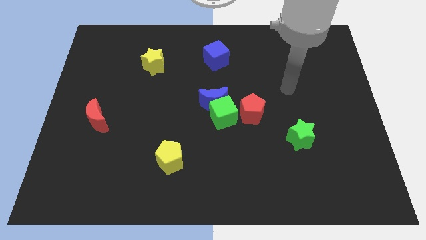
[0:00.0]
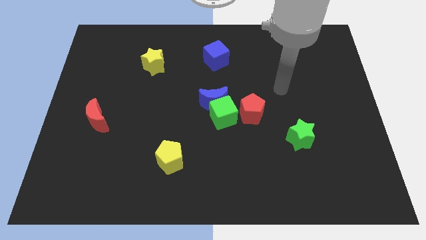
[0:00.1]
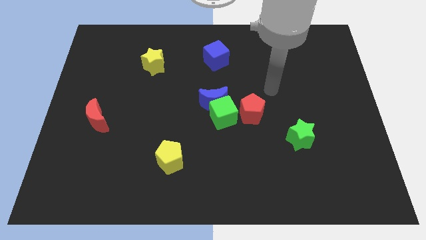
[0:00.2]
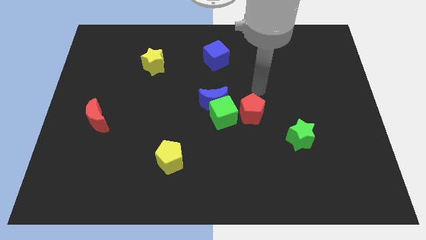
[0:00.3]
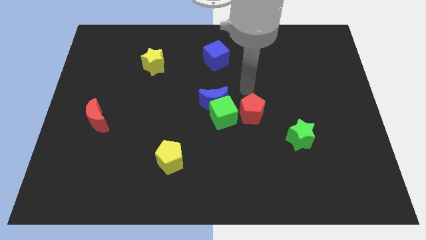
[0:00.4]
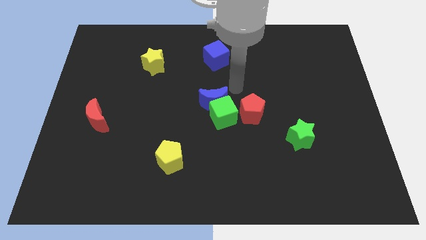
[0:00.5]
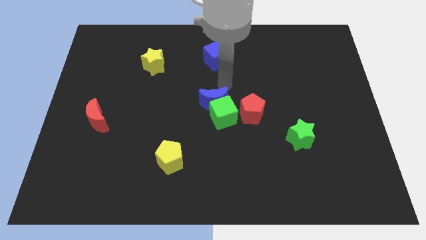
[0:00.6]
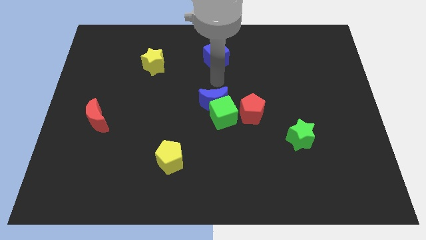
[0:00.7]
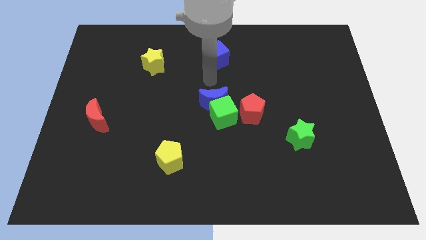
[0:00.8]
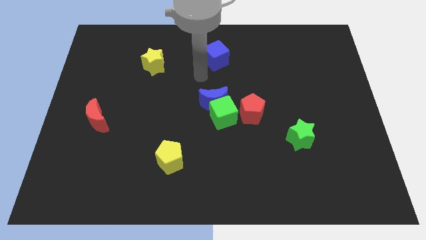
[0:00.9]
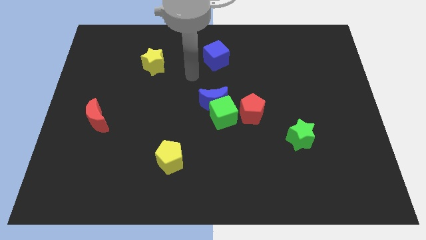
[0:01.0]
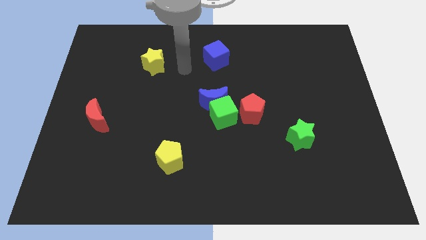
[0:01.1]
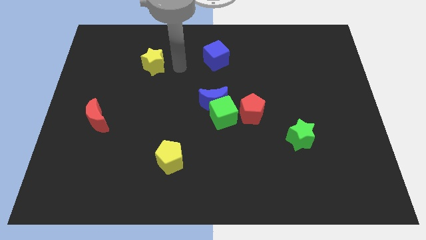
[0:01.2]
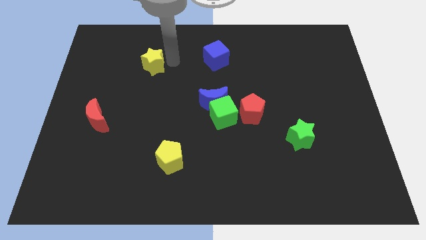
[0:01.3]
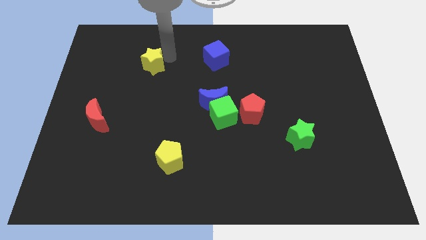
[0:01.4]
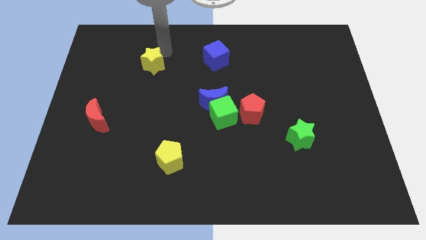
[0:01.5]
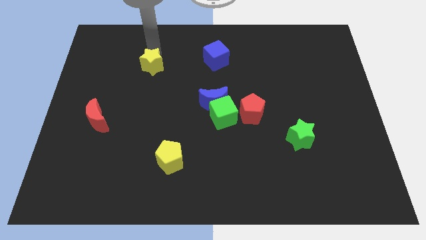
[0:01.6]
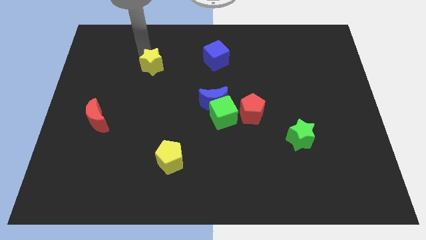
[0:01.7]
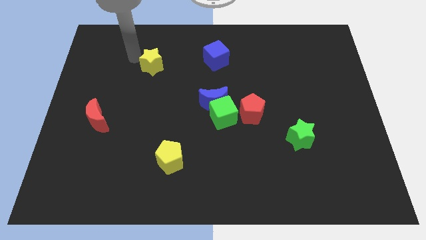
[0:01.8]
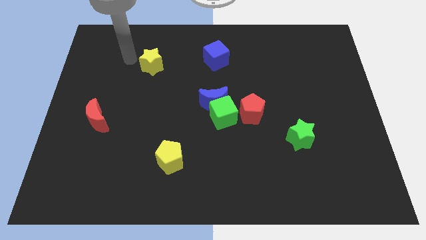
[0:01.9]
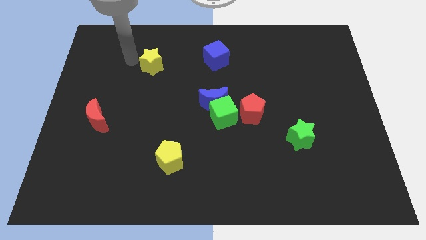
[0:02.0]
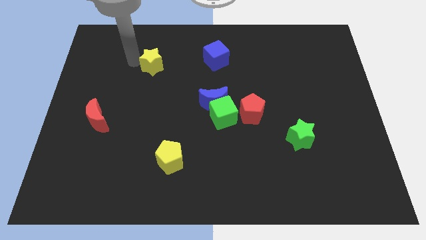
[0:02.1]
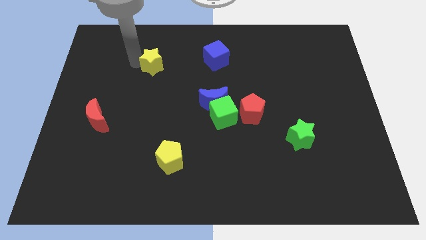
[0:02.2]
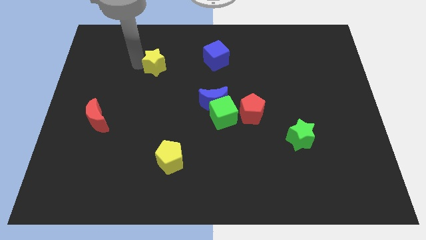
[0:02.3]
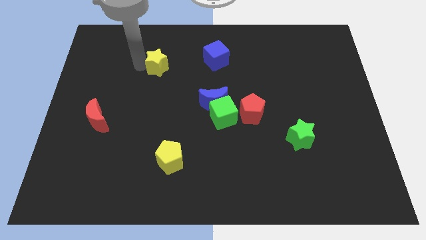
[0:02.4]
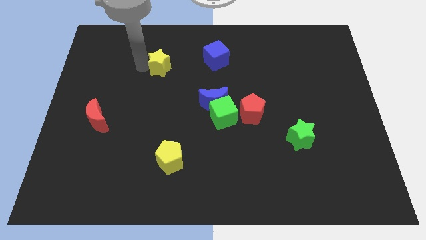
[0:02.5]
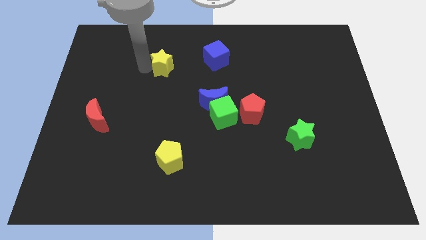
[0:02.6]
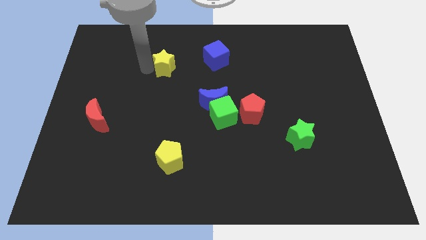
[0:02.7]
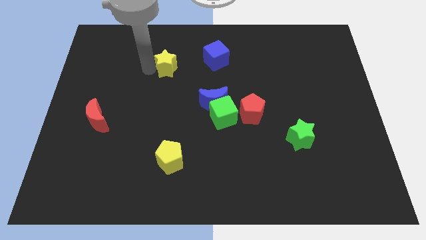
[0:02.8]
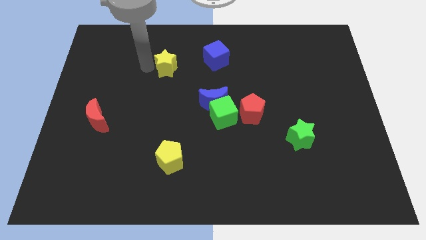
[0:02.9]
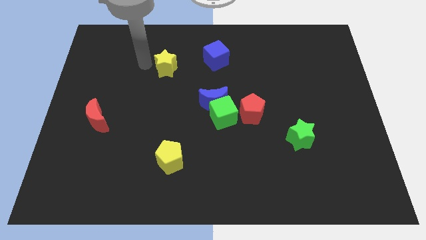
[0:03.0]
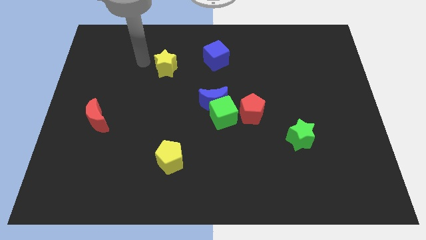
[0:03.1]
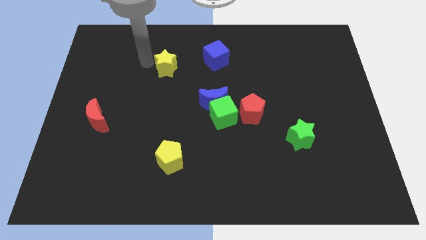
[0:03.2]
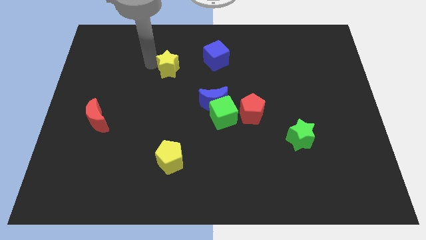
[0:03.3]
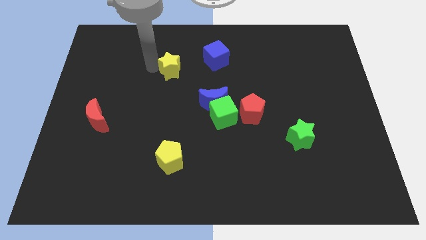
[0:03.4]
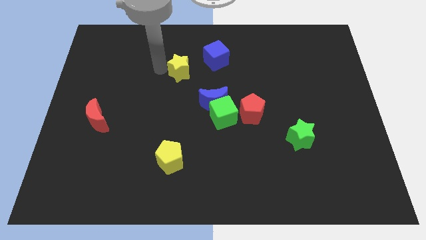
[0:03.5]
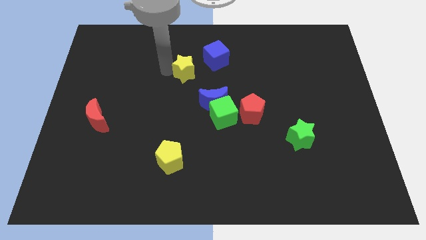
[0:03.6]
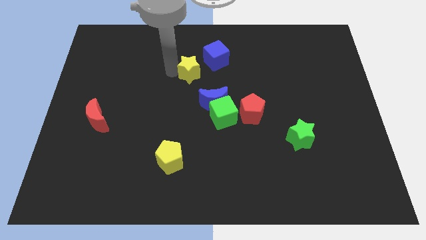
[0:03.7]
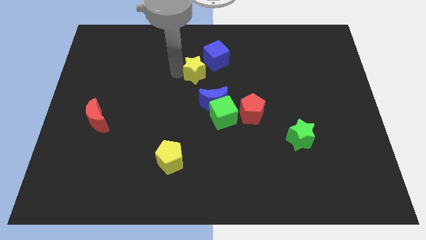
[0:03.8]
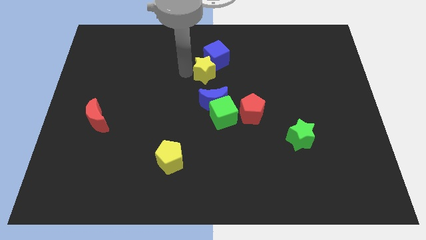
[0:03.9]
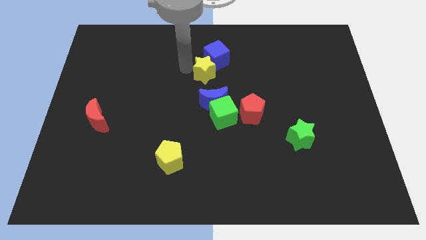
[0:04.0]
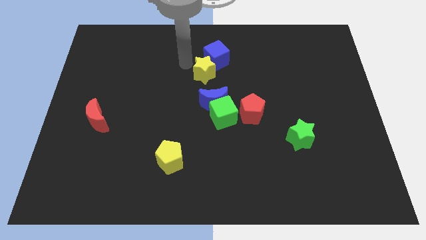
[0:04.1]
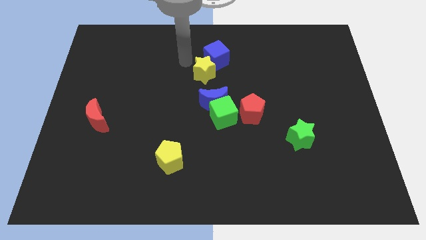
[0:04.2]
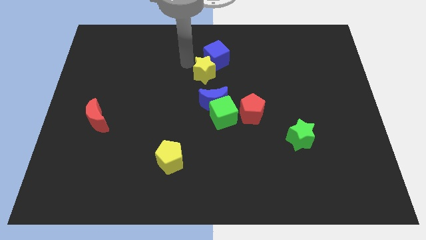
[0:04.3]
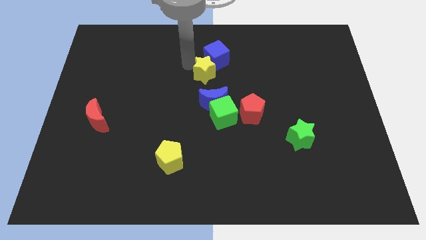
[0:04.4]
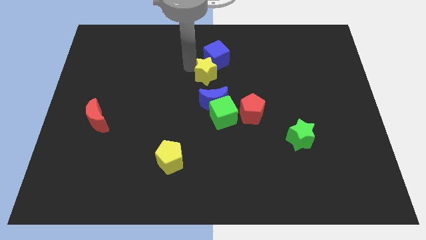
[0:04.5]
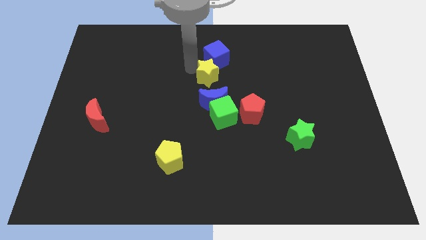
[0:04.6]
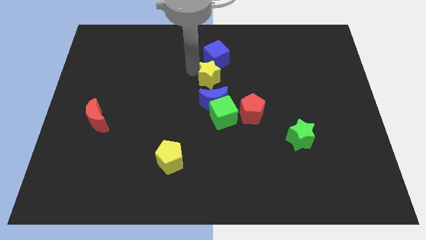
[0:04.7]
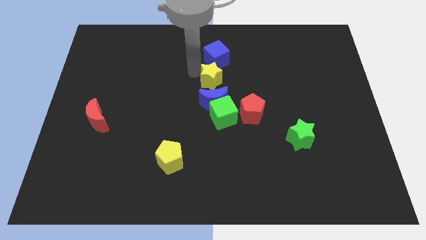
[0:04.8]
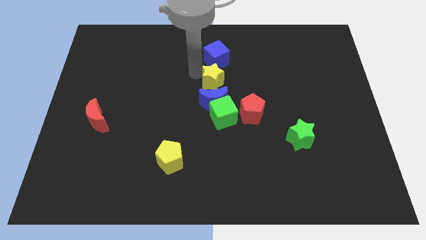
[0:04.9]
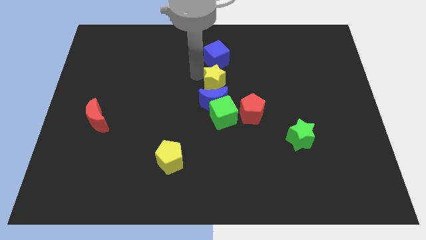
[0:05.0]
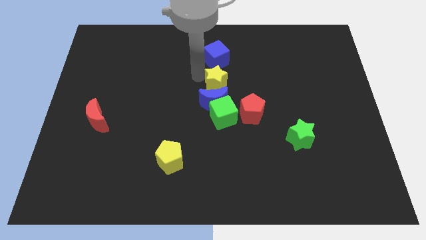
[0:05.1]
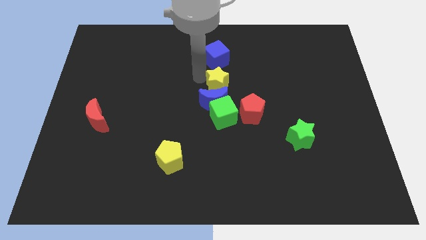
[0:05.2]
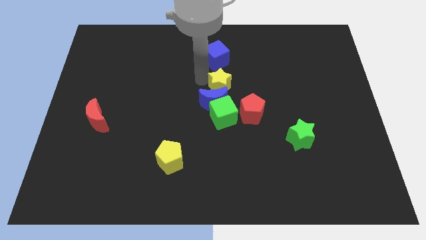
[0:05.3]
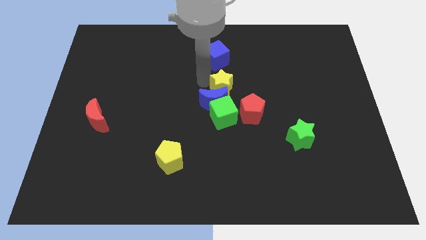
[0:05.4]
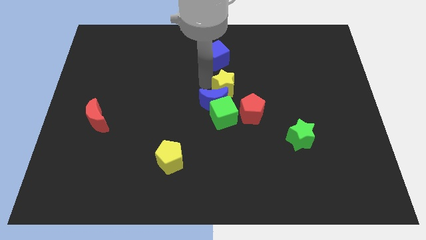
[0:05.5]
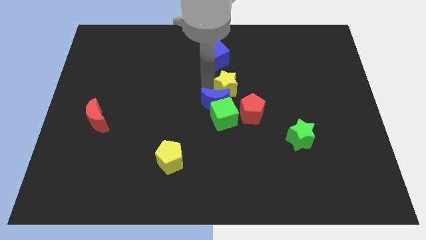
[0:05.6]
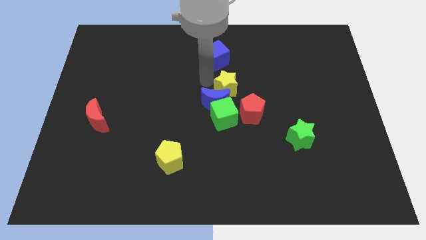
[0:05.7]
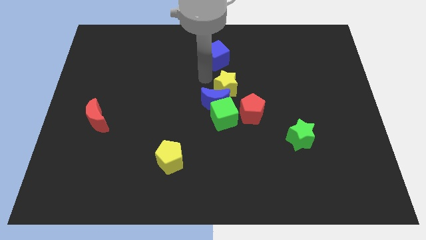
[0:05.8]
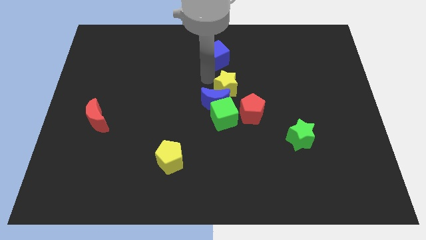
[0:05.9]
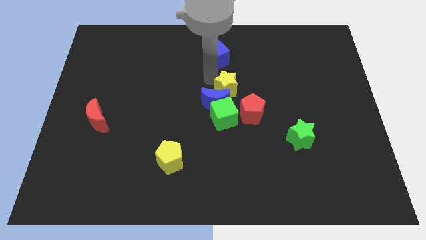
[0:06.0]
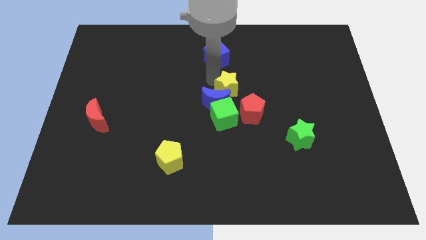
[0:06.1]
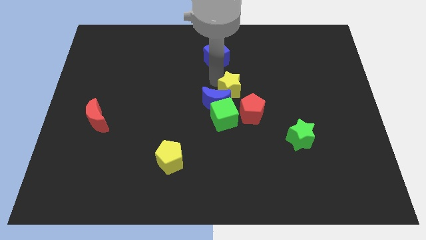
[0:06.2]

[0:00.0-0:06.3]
slide the yellow star to the top right side of the green cube
